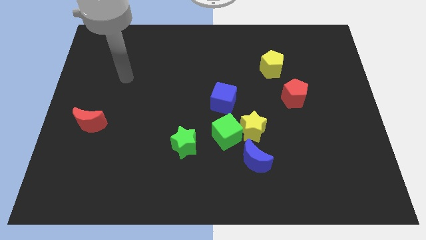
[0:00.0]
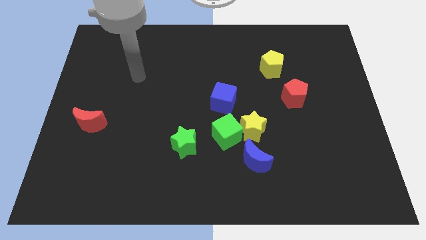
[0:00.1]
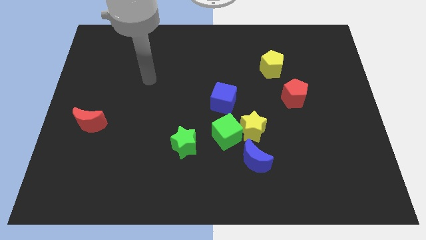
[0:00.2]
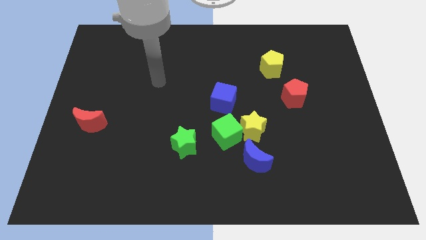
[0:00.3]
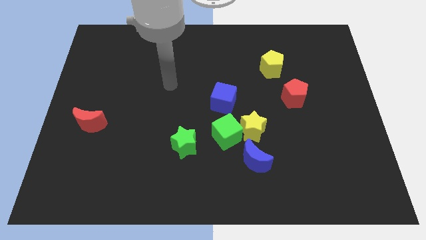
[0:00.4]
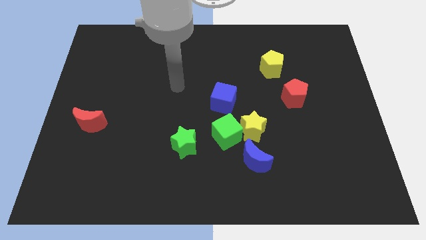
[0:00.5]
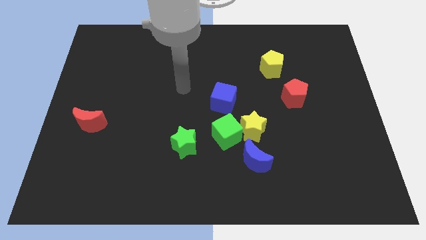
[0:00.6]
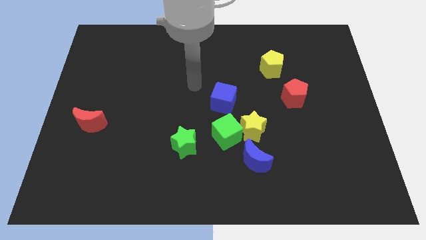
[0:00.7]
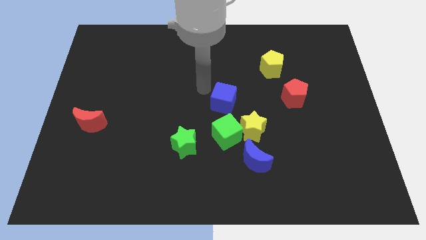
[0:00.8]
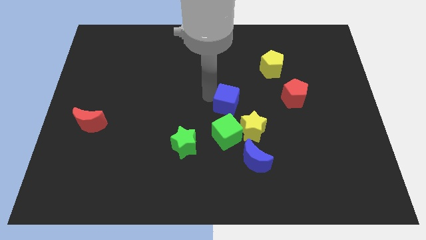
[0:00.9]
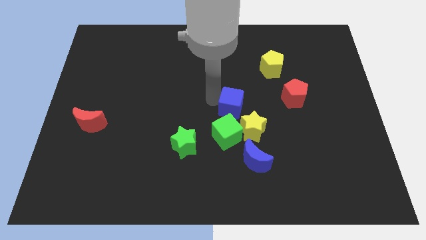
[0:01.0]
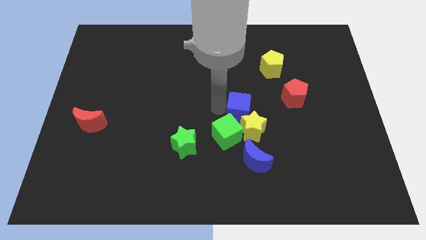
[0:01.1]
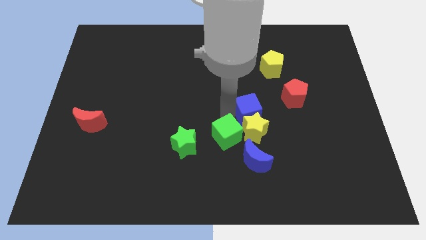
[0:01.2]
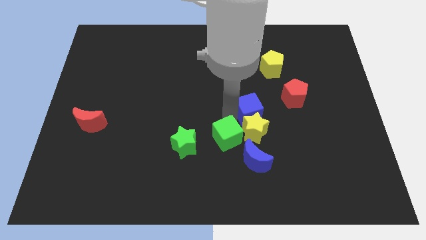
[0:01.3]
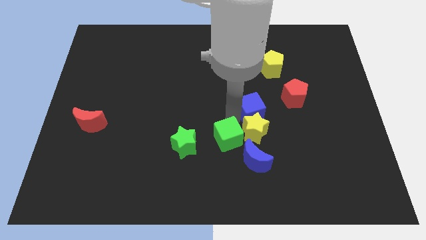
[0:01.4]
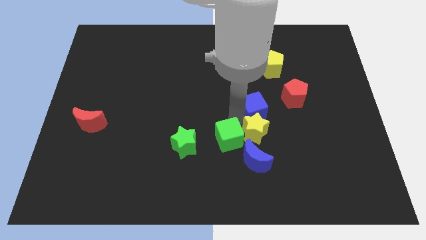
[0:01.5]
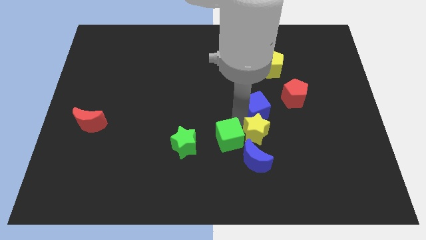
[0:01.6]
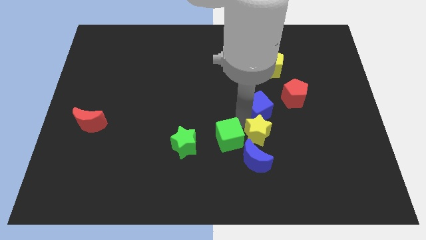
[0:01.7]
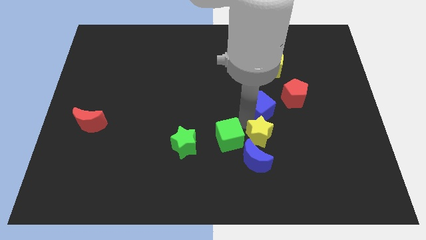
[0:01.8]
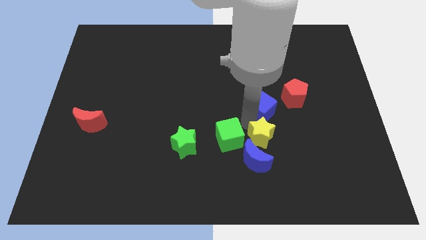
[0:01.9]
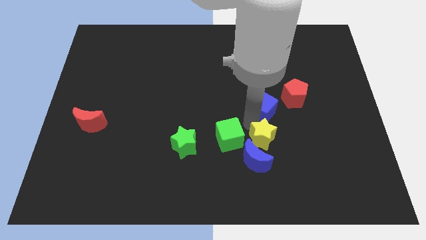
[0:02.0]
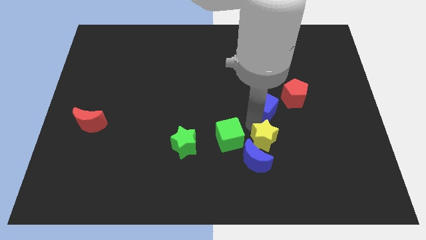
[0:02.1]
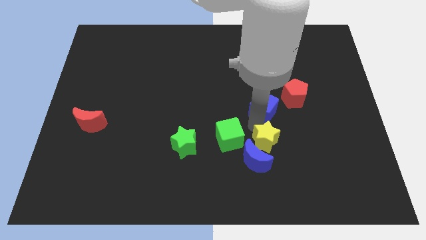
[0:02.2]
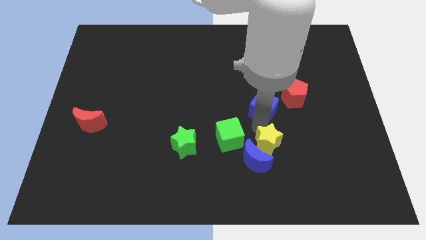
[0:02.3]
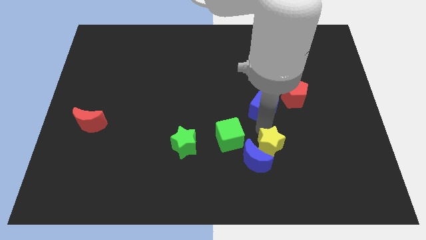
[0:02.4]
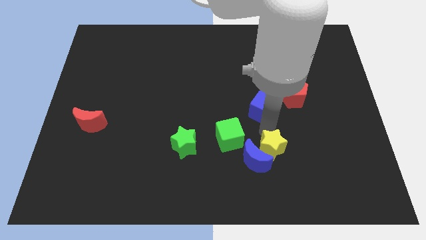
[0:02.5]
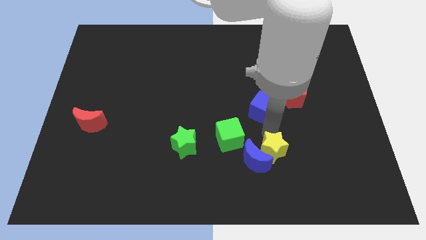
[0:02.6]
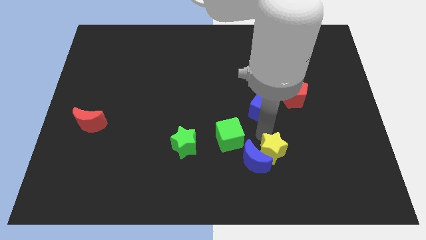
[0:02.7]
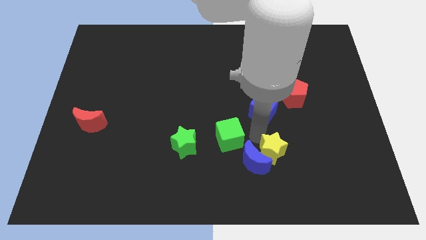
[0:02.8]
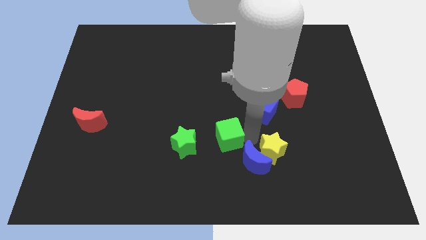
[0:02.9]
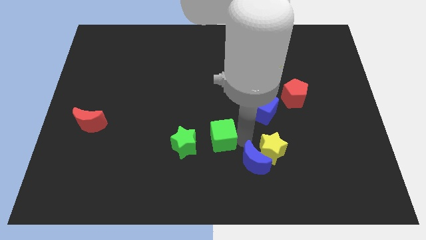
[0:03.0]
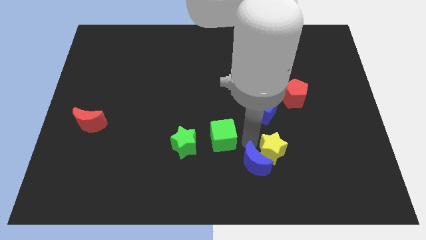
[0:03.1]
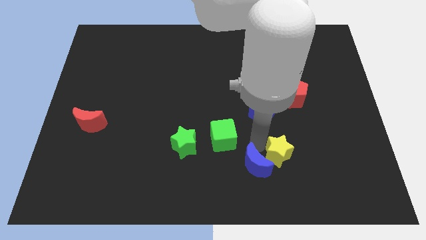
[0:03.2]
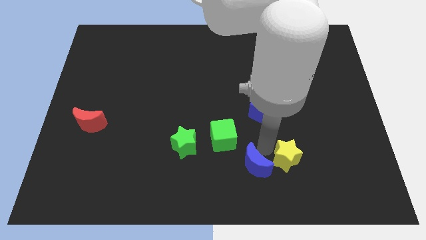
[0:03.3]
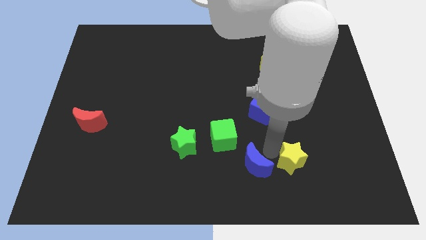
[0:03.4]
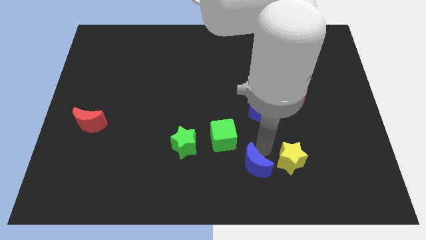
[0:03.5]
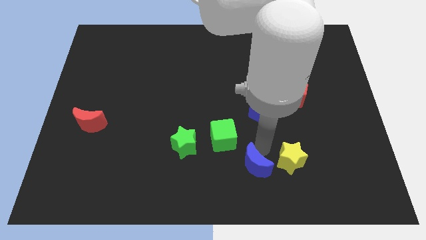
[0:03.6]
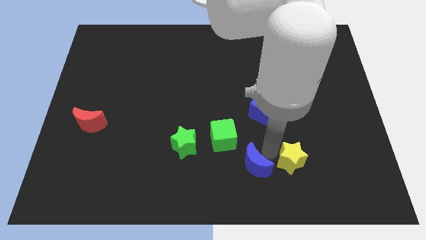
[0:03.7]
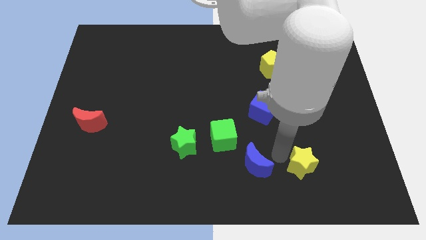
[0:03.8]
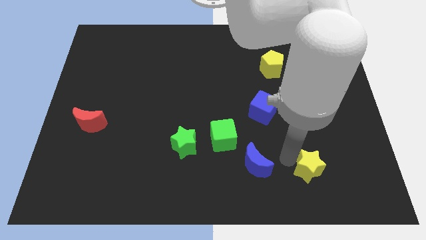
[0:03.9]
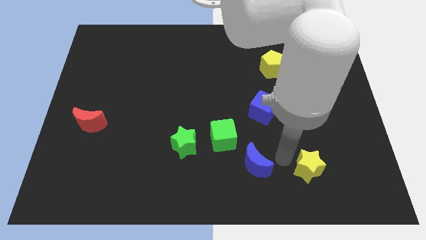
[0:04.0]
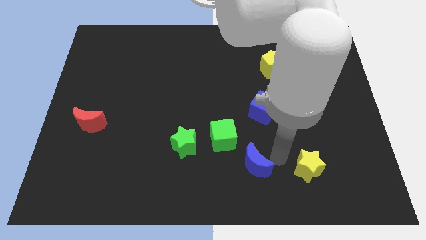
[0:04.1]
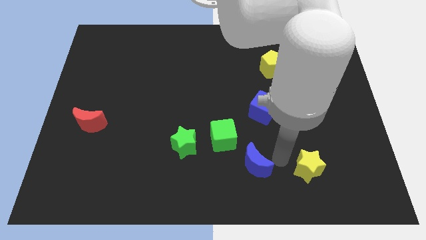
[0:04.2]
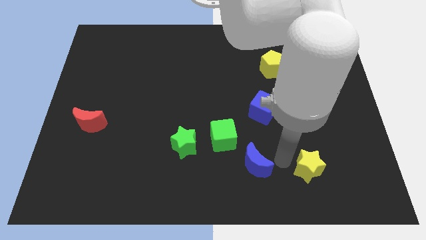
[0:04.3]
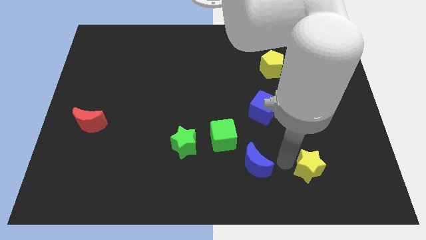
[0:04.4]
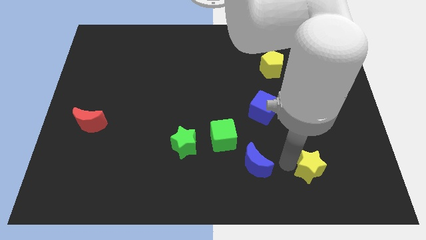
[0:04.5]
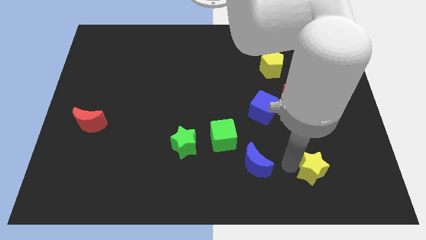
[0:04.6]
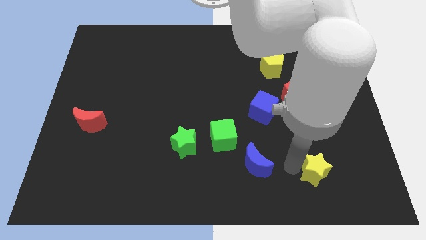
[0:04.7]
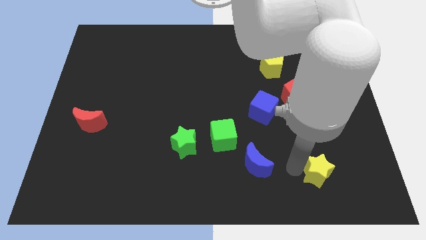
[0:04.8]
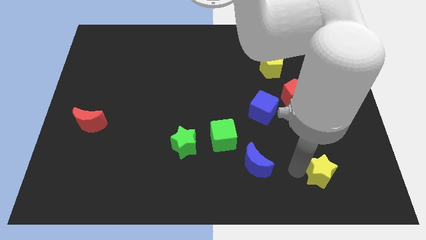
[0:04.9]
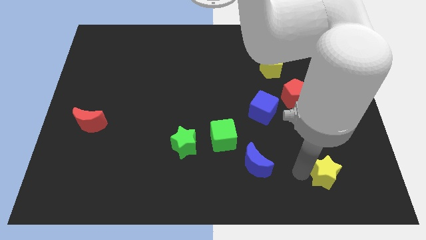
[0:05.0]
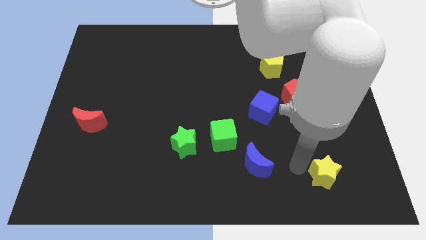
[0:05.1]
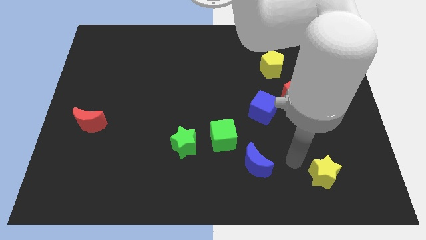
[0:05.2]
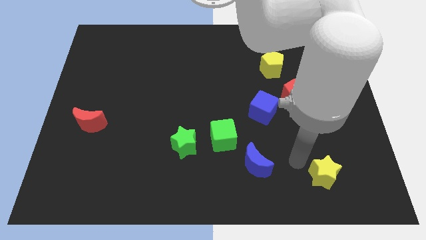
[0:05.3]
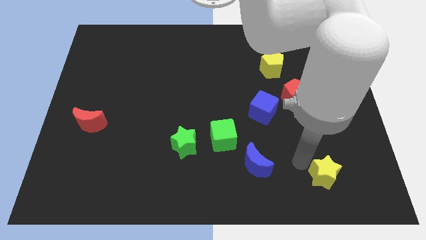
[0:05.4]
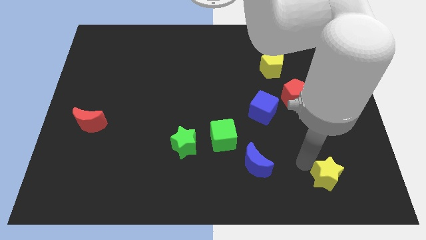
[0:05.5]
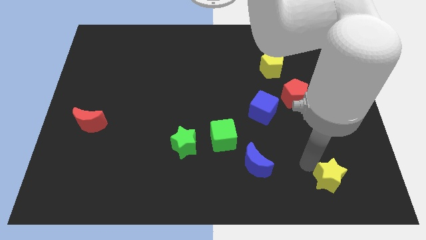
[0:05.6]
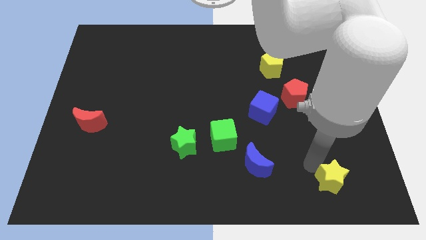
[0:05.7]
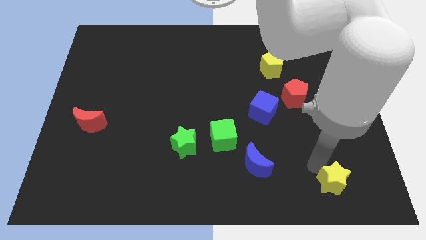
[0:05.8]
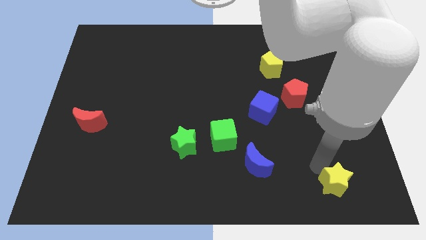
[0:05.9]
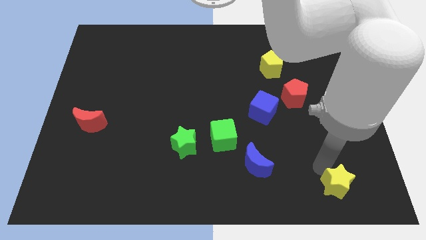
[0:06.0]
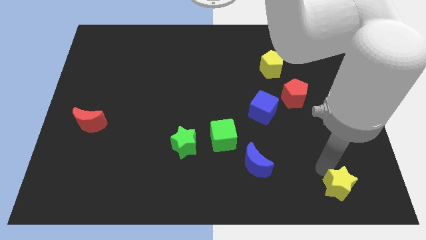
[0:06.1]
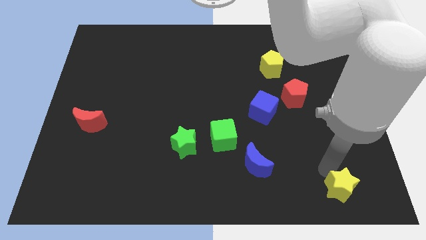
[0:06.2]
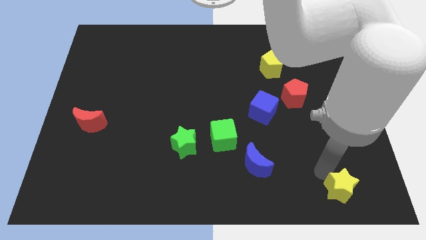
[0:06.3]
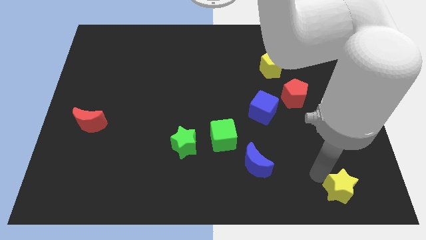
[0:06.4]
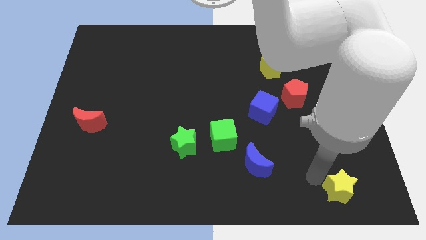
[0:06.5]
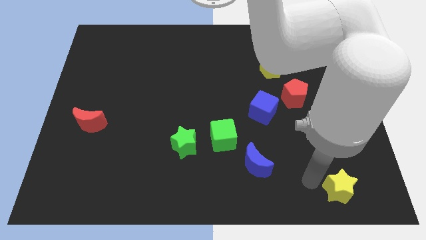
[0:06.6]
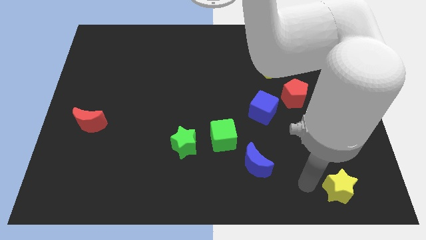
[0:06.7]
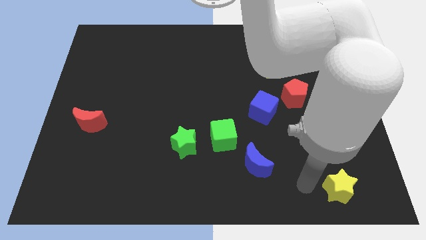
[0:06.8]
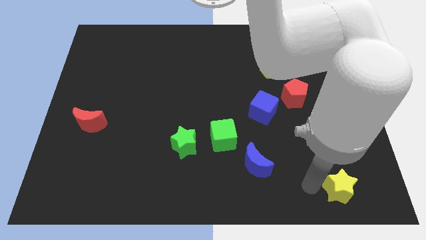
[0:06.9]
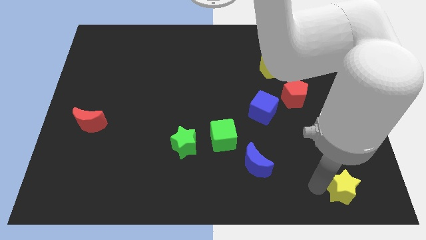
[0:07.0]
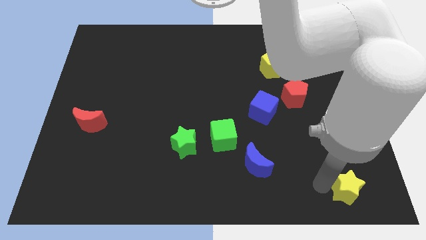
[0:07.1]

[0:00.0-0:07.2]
slide the yellow star to the lower right corner

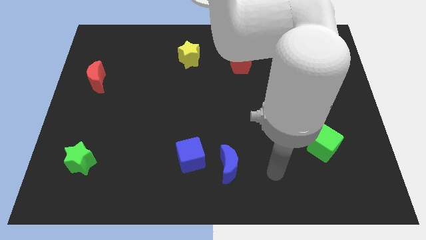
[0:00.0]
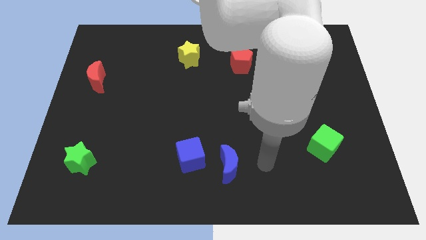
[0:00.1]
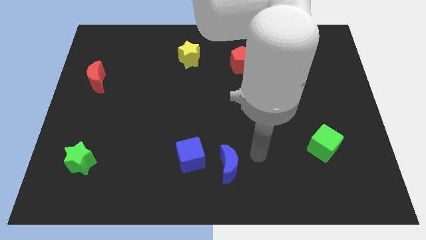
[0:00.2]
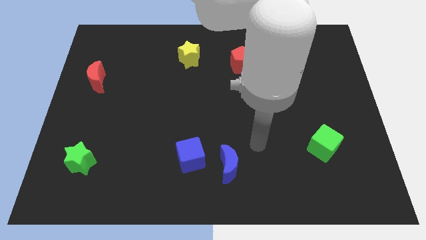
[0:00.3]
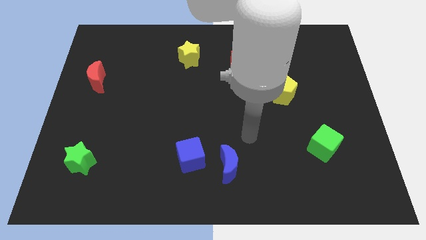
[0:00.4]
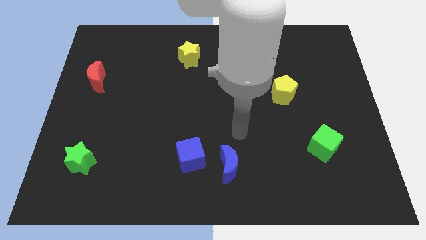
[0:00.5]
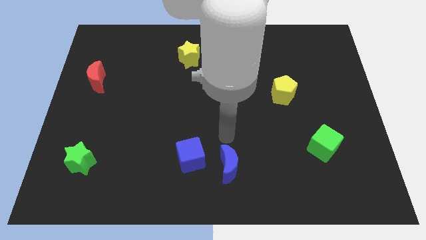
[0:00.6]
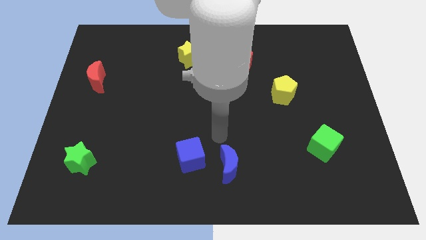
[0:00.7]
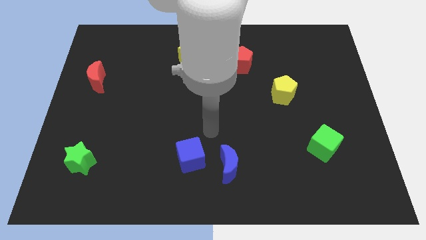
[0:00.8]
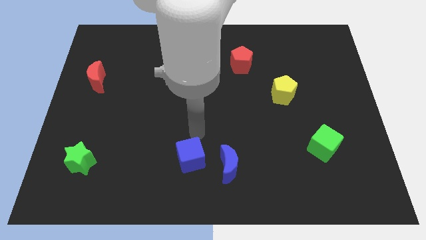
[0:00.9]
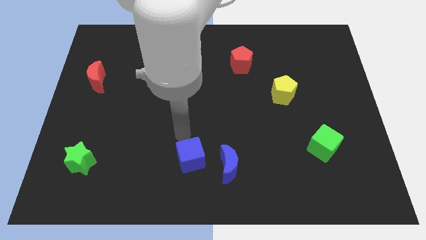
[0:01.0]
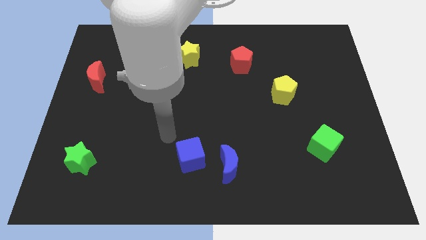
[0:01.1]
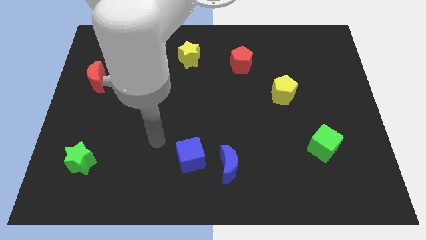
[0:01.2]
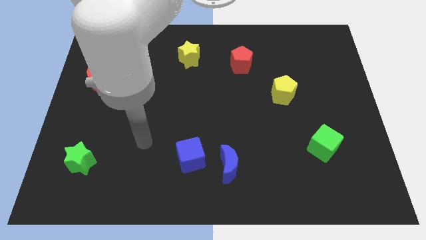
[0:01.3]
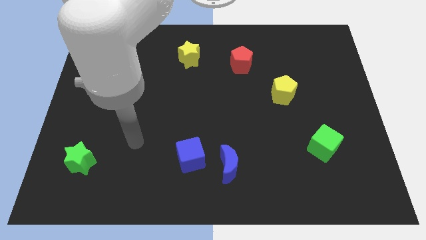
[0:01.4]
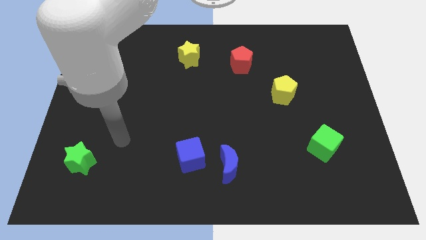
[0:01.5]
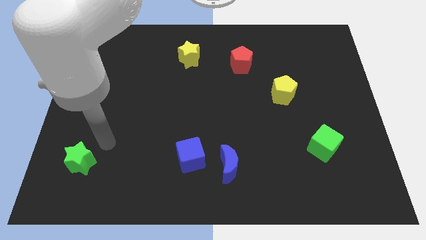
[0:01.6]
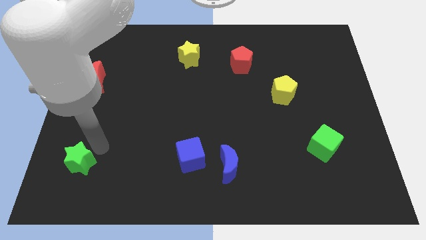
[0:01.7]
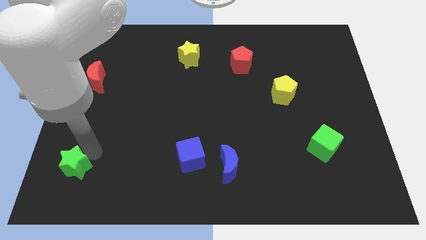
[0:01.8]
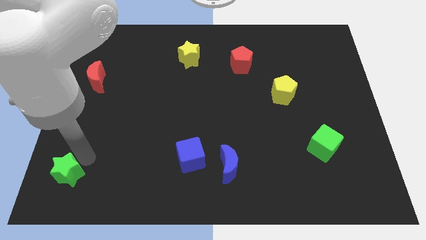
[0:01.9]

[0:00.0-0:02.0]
put the green star to the bottom left corner
